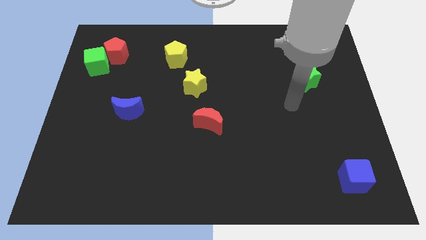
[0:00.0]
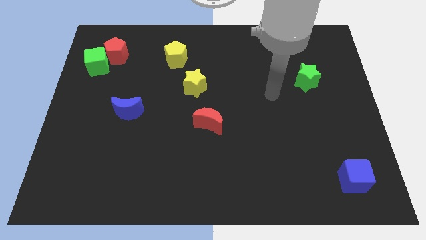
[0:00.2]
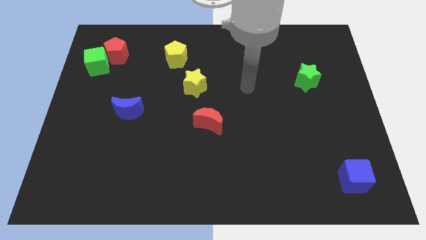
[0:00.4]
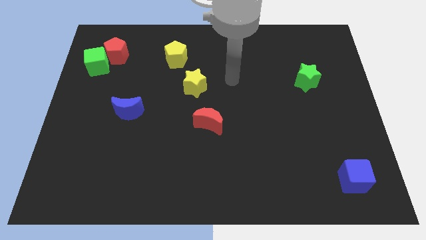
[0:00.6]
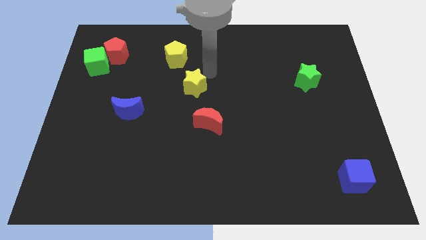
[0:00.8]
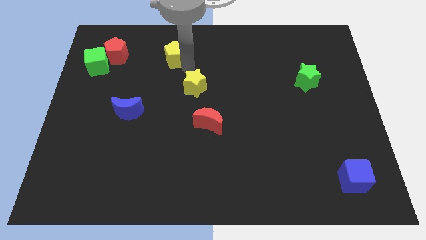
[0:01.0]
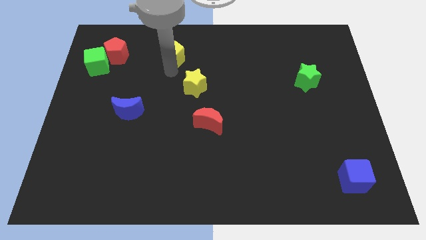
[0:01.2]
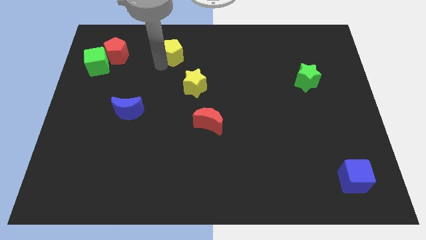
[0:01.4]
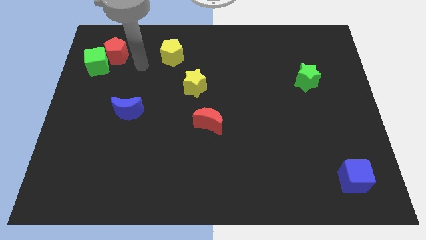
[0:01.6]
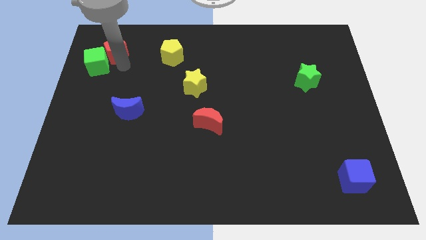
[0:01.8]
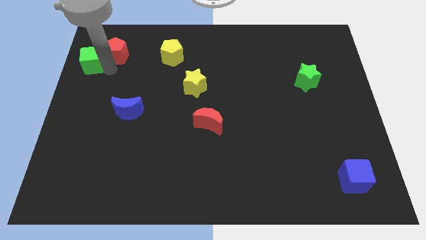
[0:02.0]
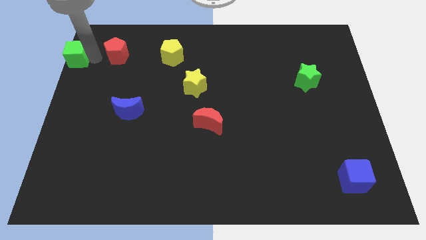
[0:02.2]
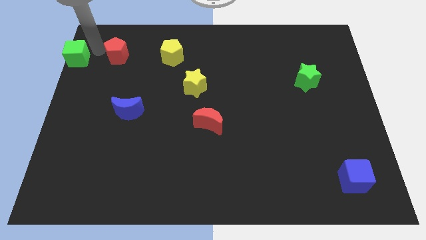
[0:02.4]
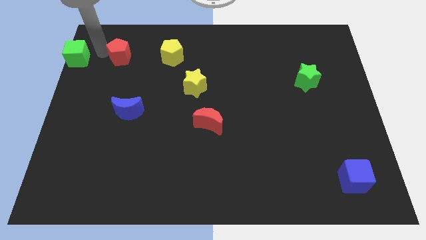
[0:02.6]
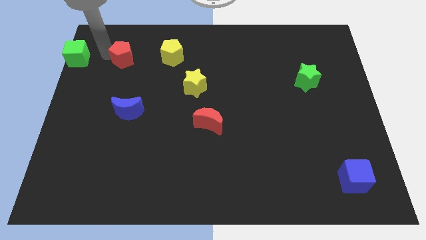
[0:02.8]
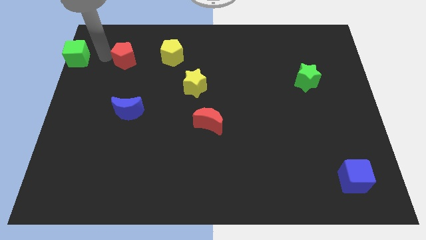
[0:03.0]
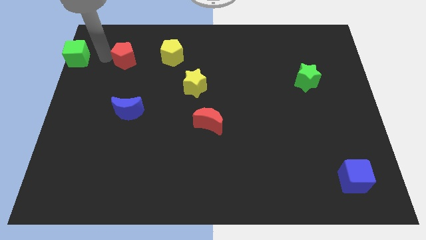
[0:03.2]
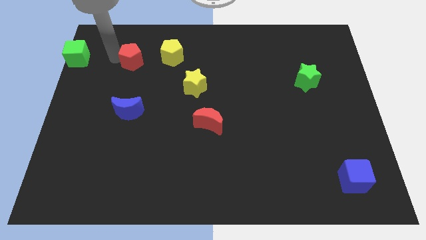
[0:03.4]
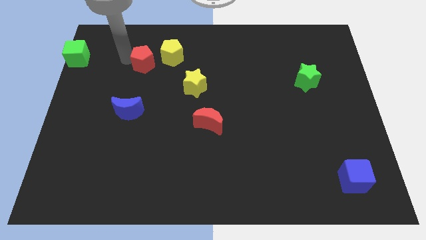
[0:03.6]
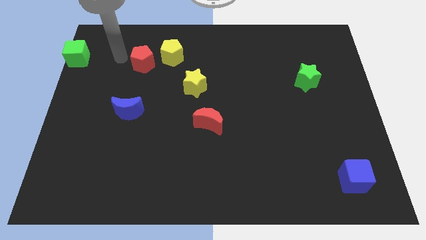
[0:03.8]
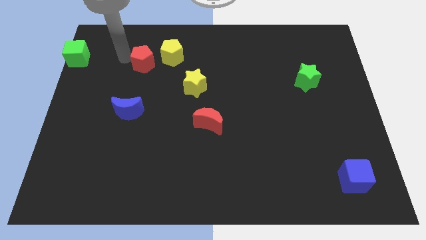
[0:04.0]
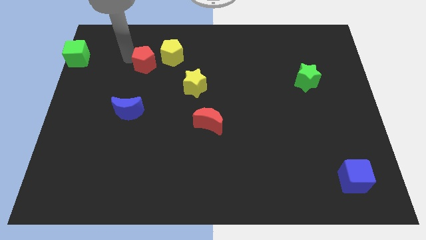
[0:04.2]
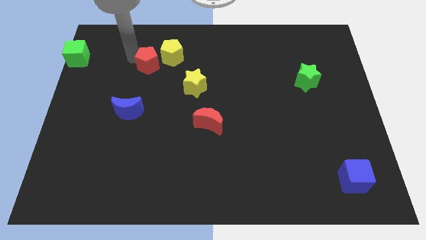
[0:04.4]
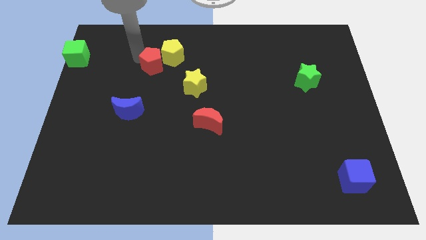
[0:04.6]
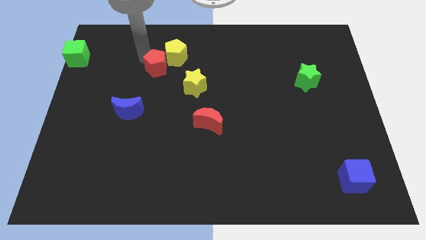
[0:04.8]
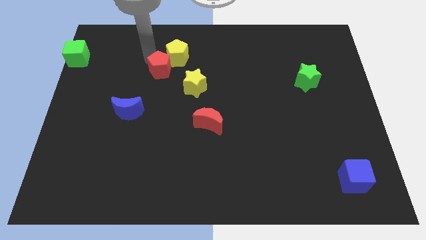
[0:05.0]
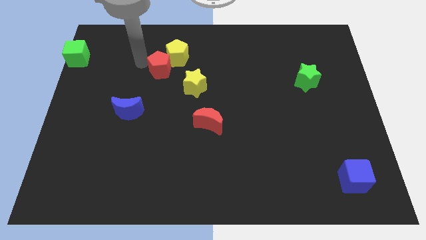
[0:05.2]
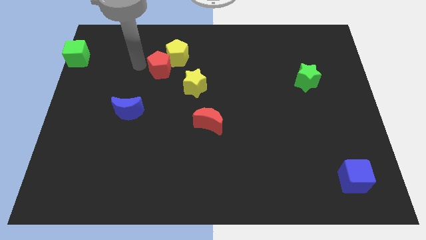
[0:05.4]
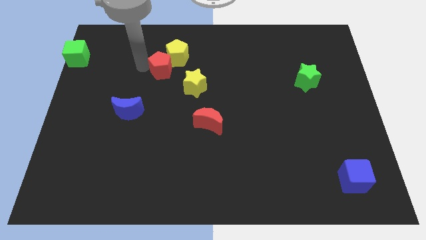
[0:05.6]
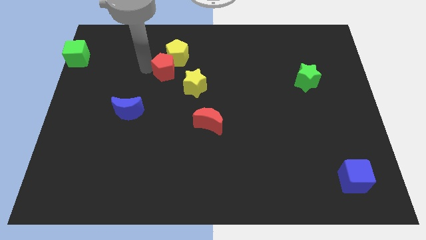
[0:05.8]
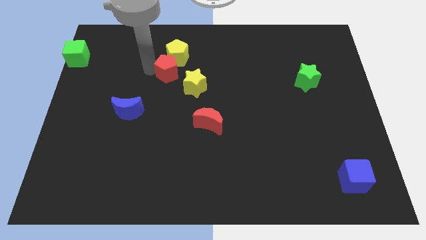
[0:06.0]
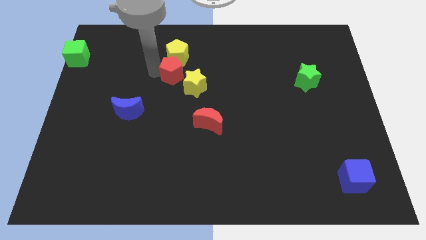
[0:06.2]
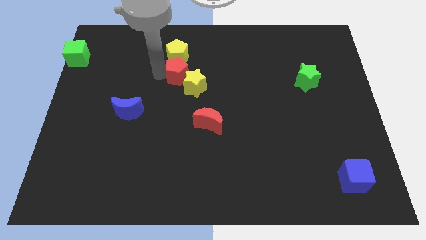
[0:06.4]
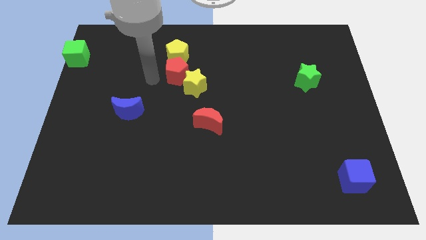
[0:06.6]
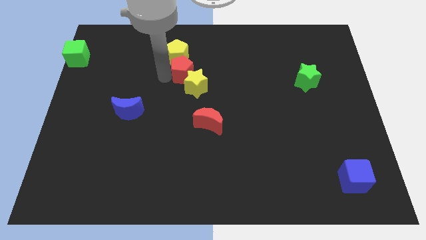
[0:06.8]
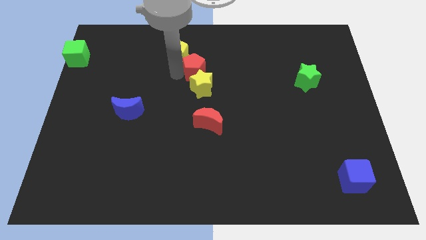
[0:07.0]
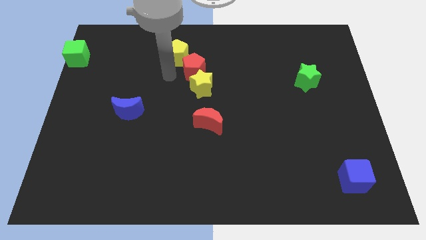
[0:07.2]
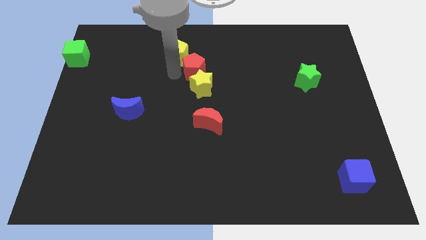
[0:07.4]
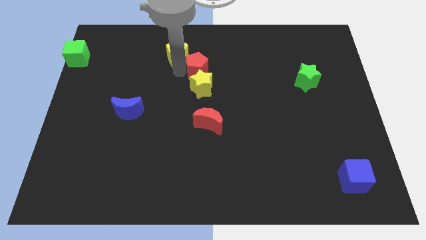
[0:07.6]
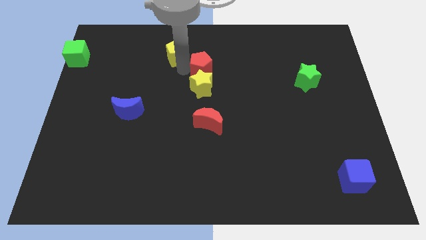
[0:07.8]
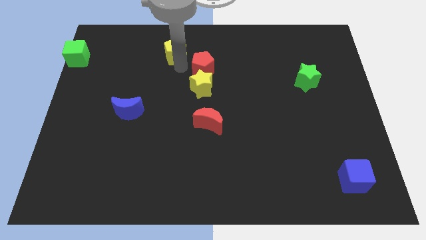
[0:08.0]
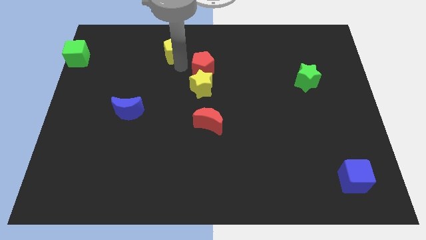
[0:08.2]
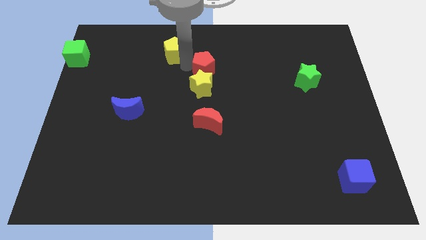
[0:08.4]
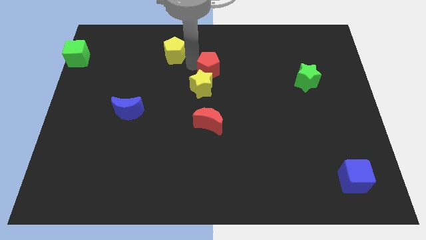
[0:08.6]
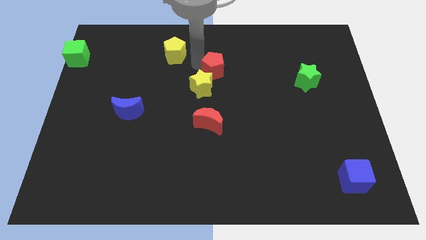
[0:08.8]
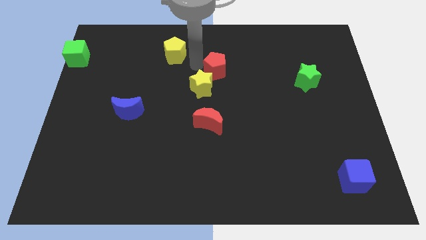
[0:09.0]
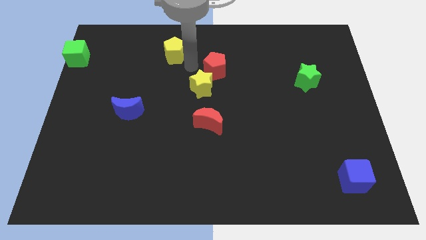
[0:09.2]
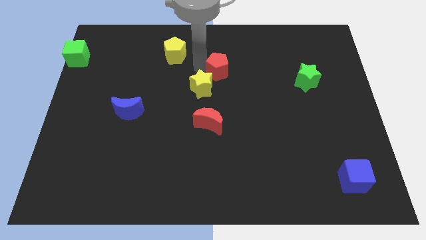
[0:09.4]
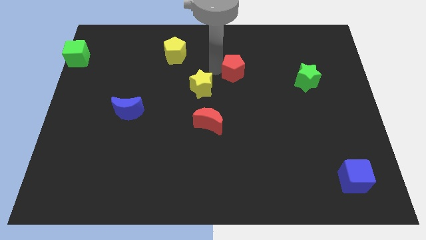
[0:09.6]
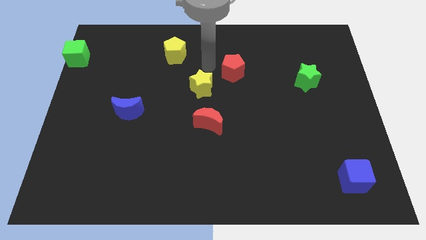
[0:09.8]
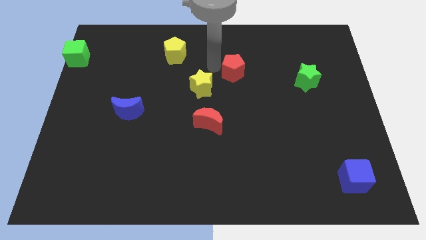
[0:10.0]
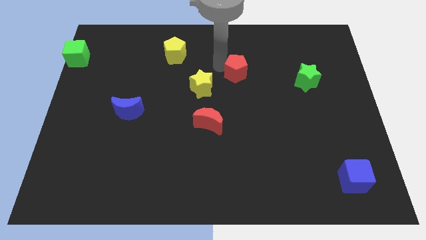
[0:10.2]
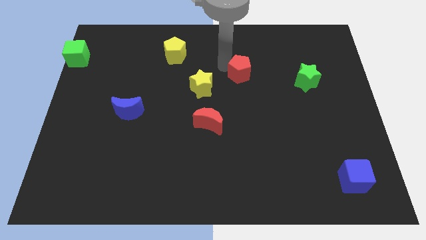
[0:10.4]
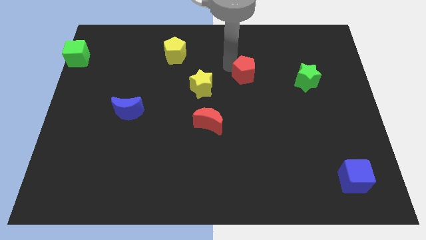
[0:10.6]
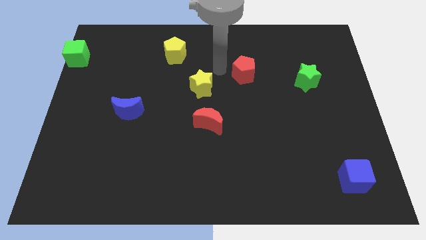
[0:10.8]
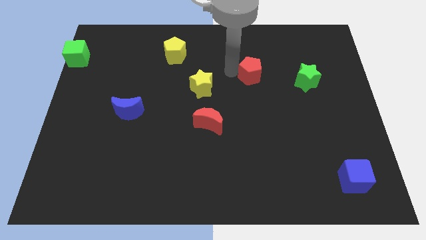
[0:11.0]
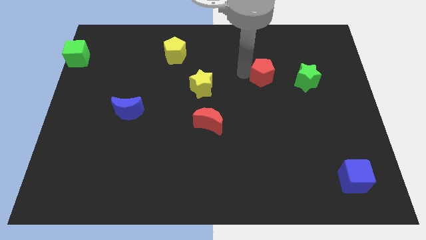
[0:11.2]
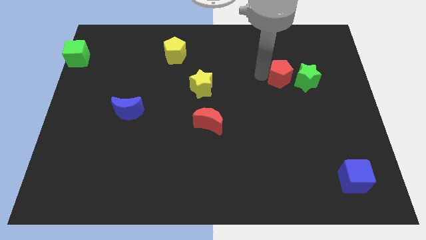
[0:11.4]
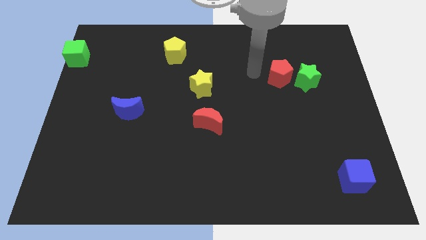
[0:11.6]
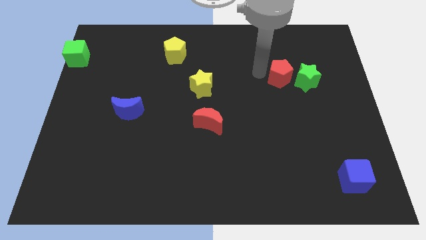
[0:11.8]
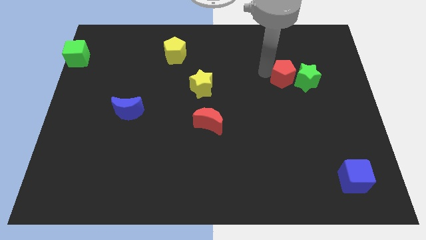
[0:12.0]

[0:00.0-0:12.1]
put the red pentagon close to the green star

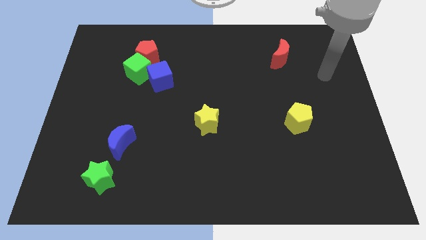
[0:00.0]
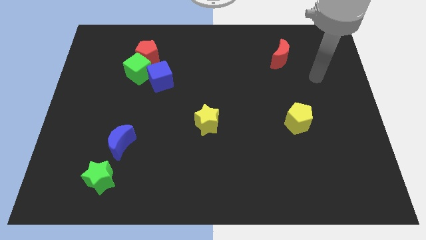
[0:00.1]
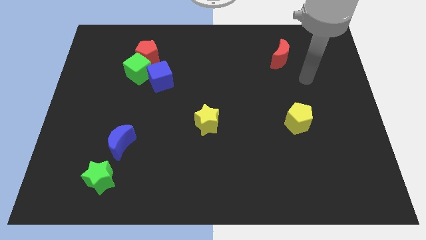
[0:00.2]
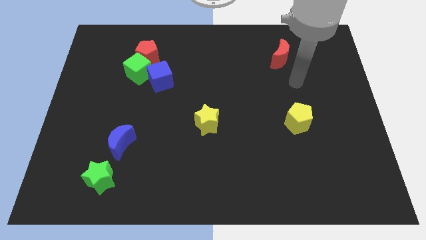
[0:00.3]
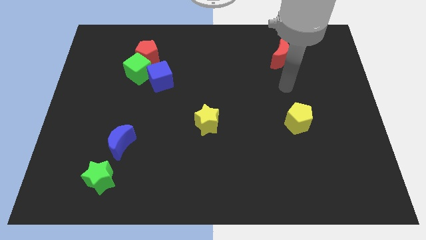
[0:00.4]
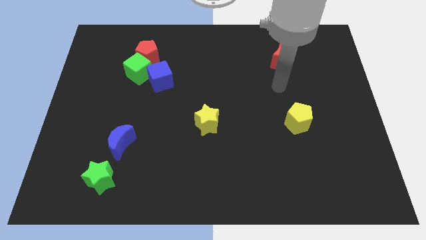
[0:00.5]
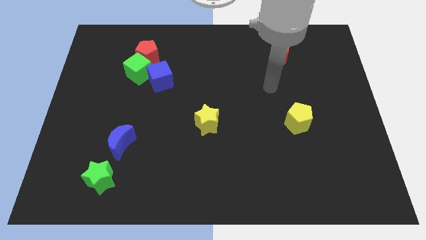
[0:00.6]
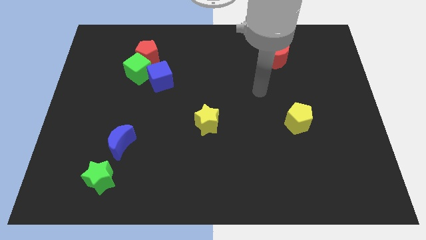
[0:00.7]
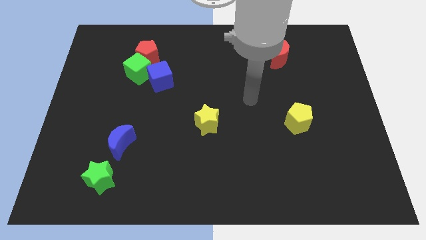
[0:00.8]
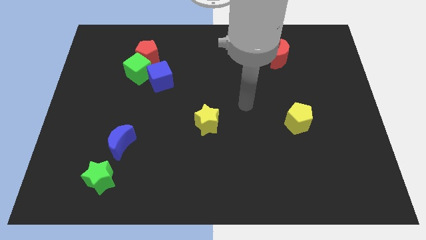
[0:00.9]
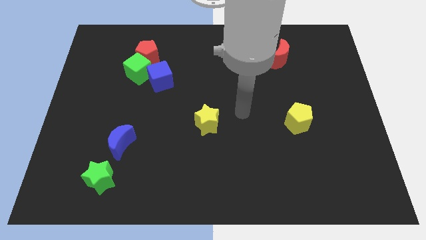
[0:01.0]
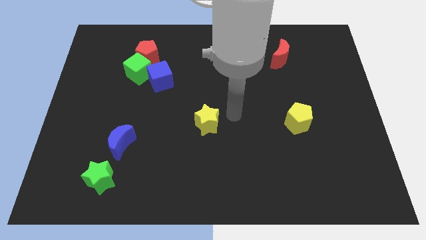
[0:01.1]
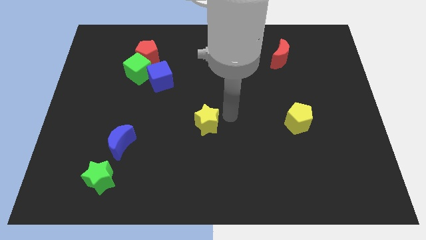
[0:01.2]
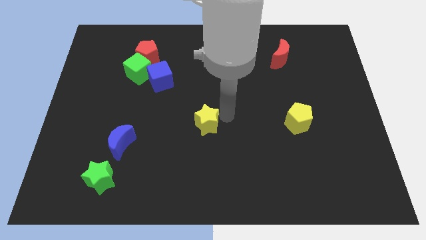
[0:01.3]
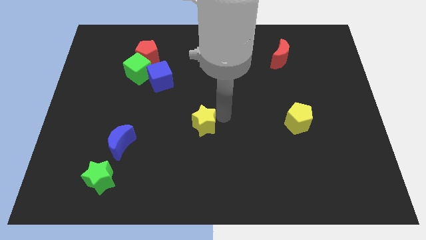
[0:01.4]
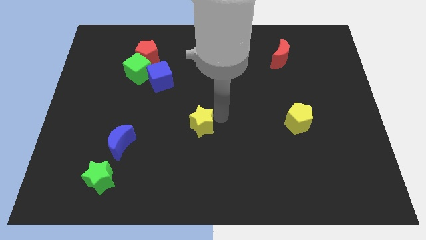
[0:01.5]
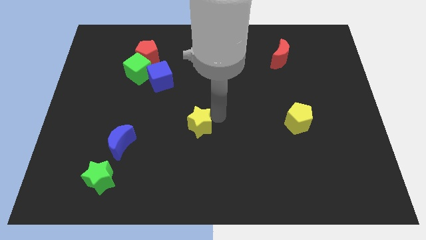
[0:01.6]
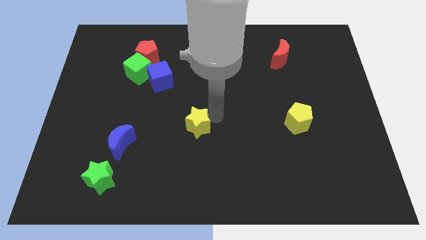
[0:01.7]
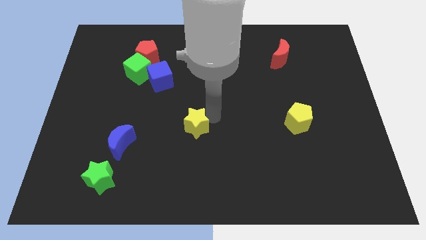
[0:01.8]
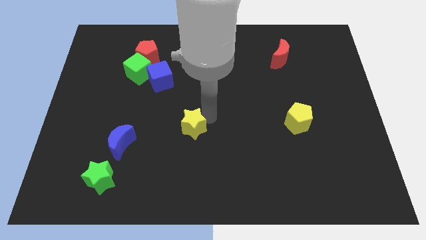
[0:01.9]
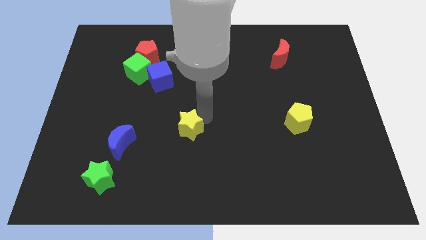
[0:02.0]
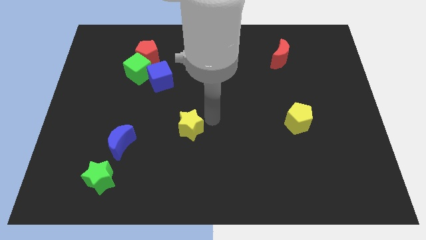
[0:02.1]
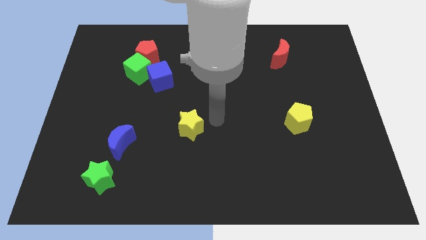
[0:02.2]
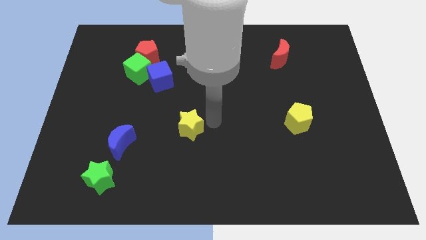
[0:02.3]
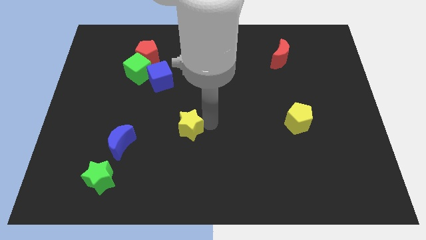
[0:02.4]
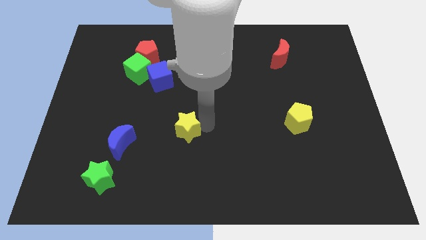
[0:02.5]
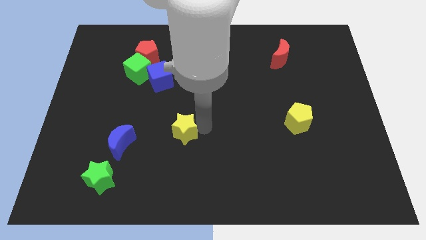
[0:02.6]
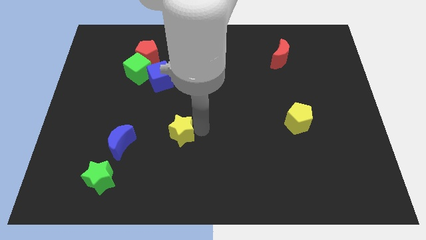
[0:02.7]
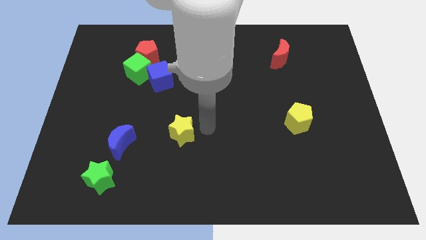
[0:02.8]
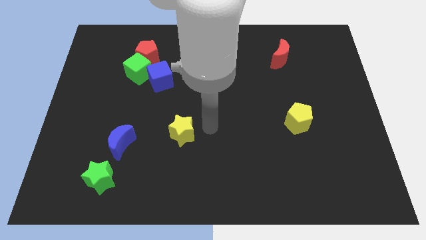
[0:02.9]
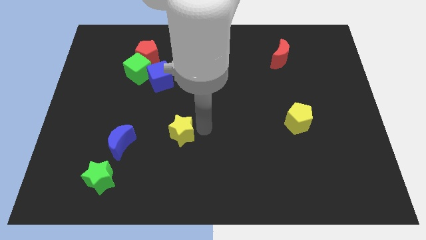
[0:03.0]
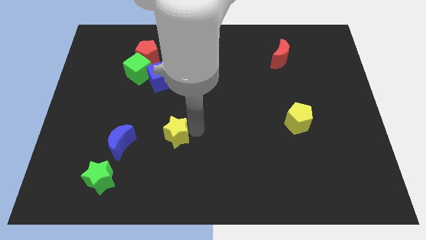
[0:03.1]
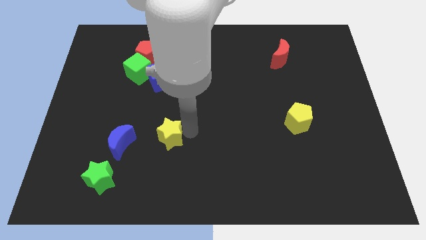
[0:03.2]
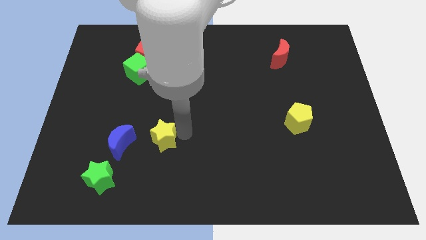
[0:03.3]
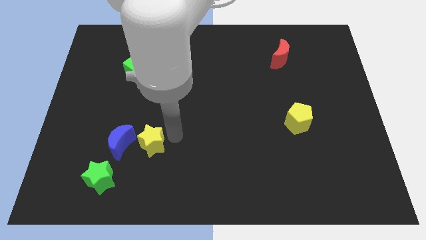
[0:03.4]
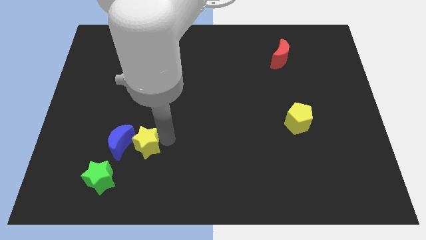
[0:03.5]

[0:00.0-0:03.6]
put the yellow star close to the blue moon
